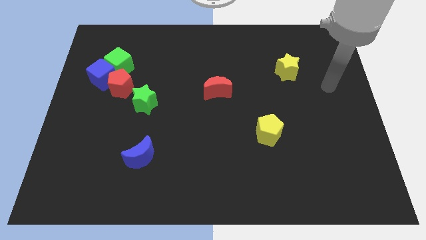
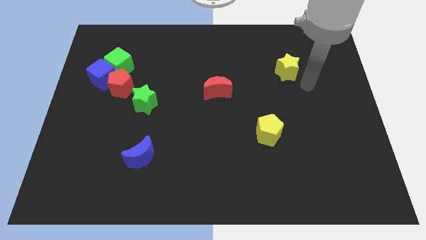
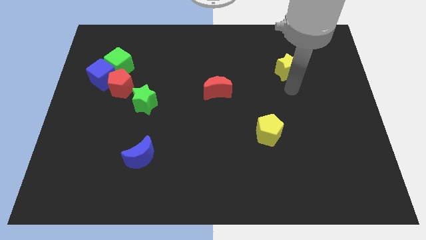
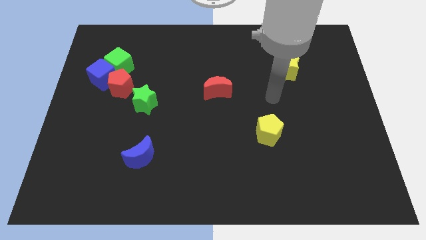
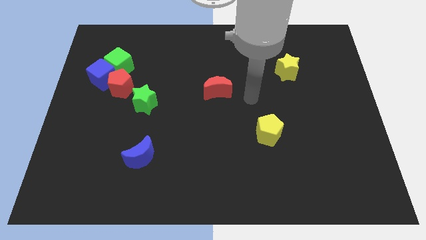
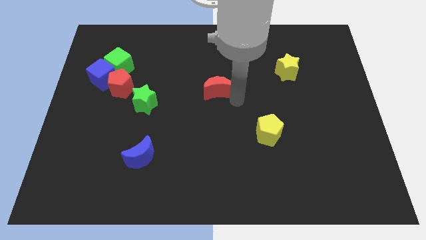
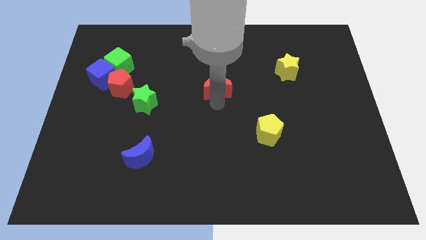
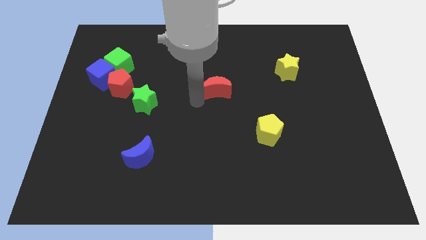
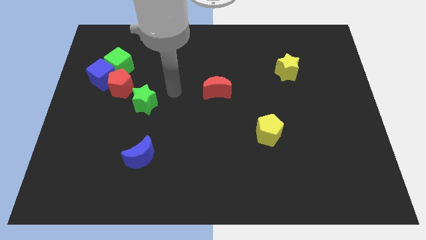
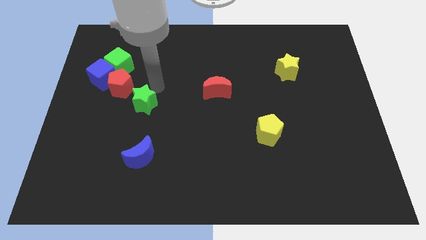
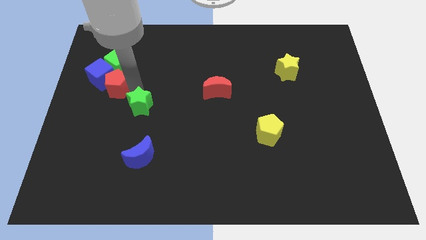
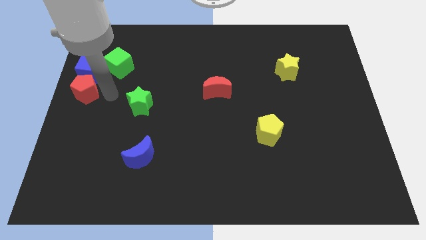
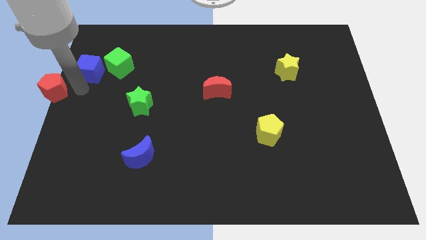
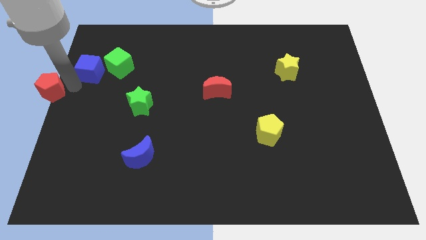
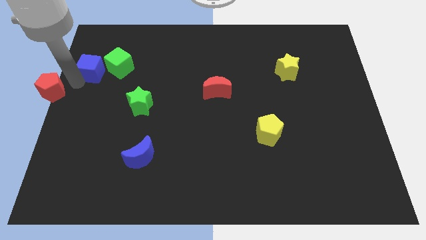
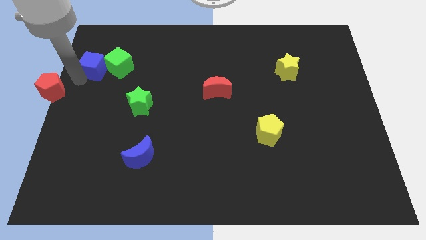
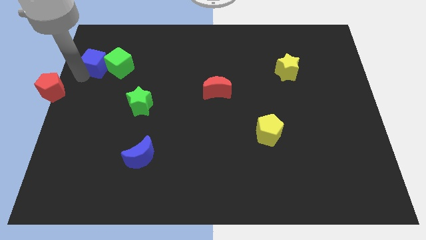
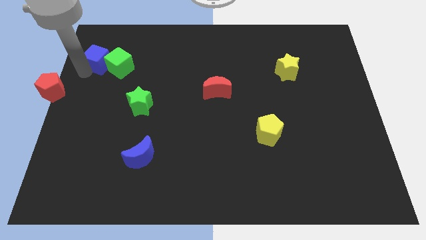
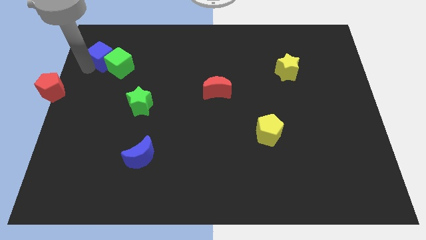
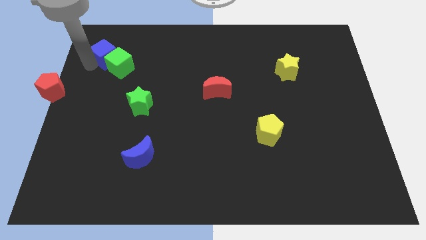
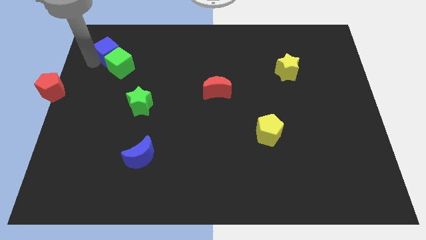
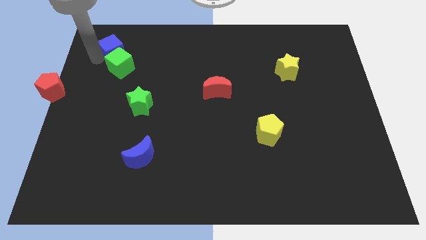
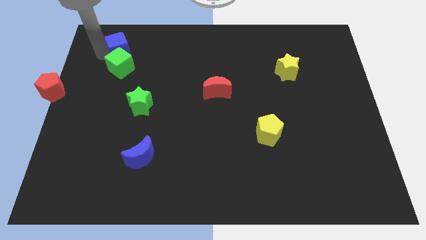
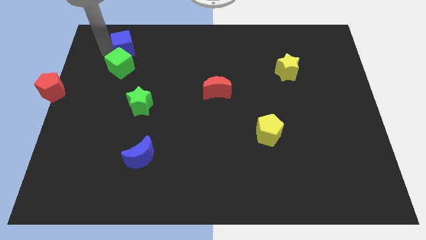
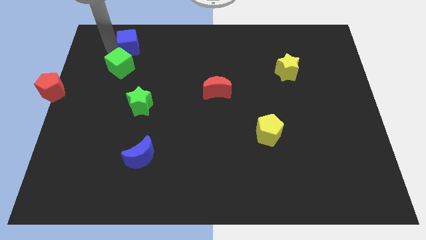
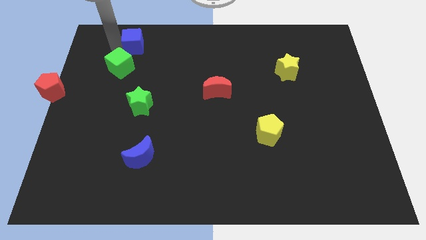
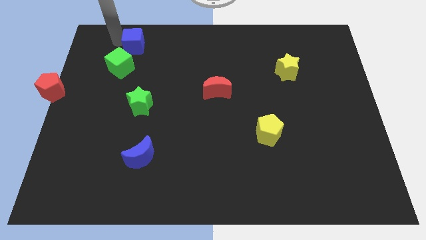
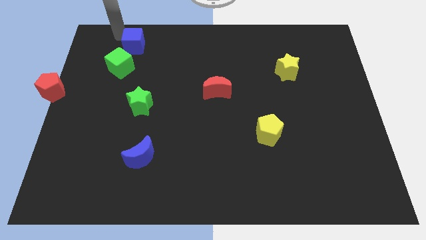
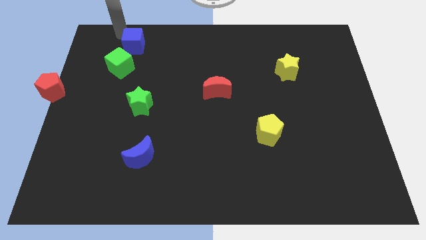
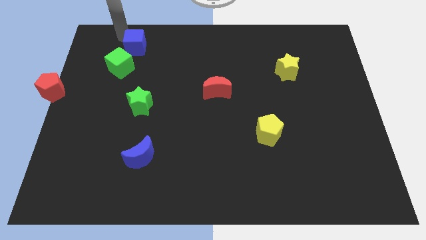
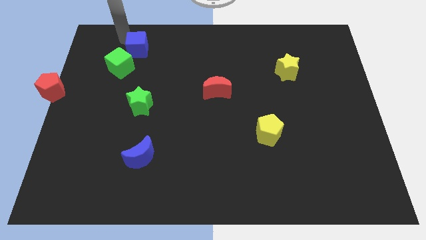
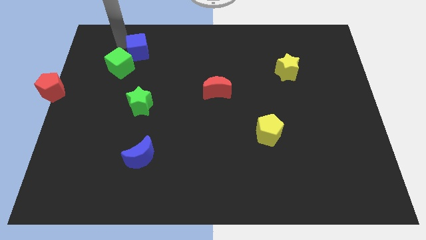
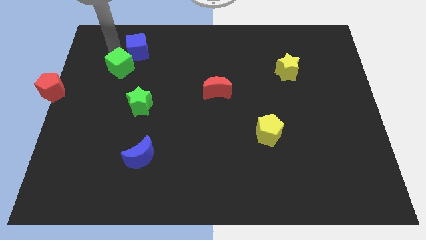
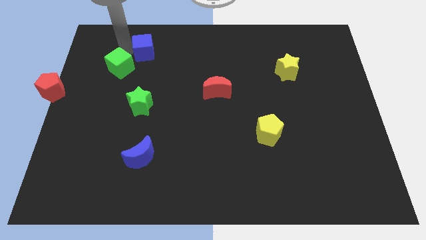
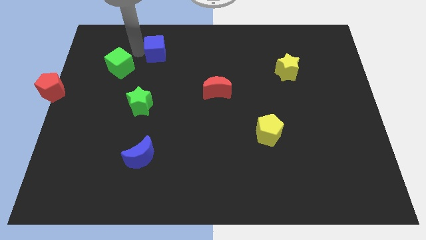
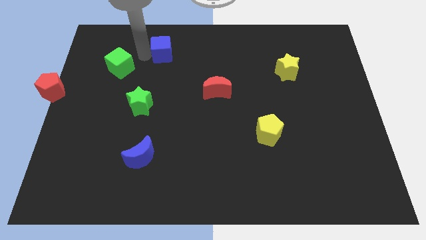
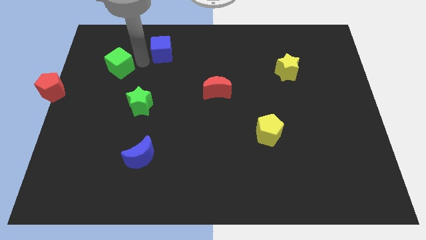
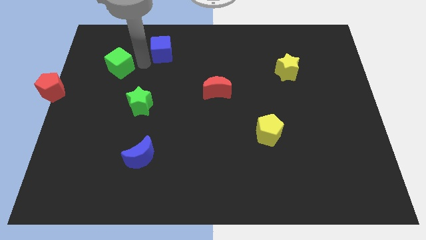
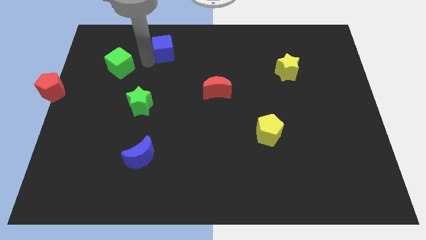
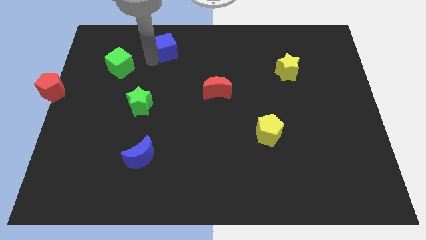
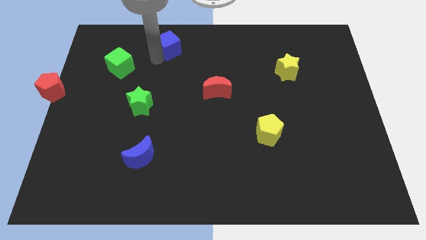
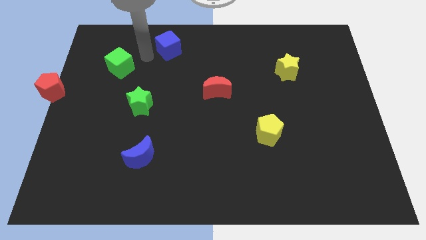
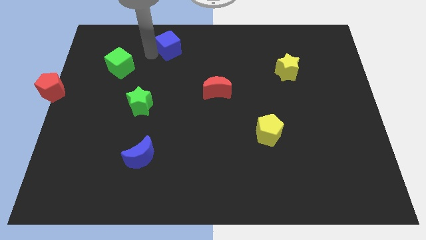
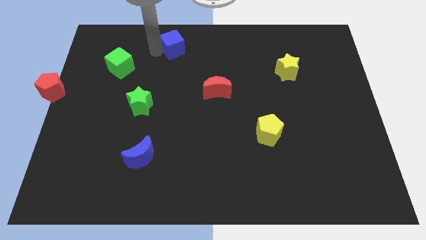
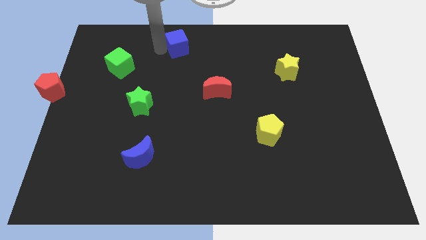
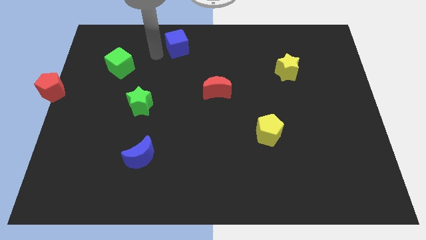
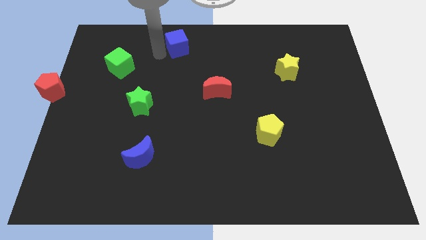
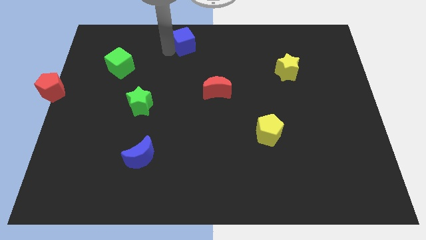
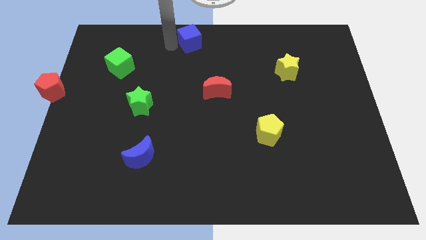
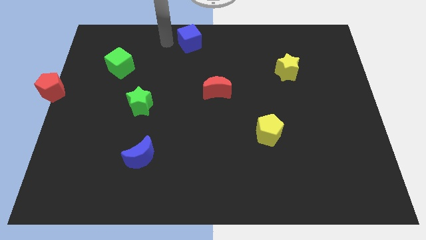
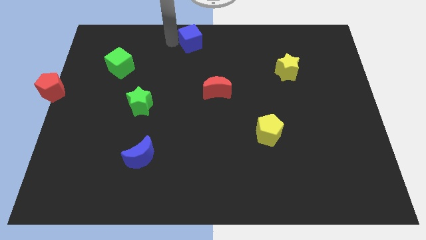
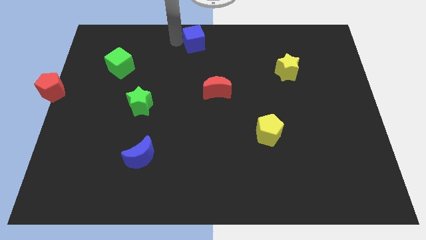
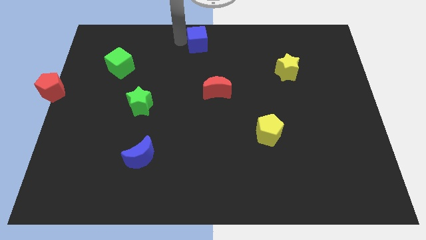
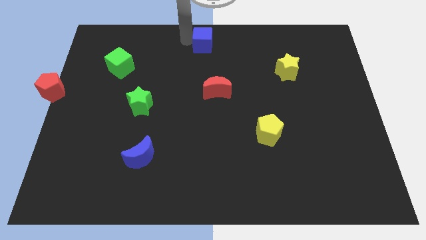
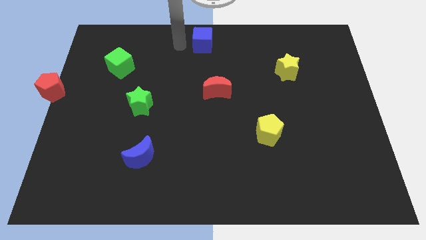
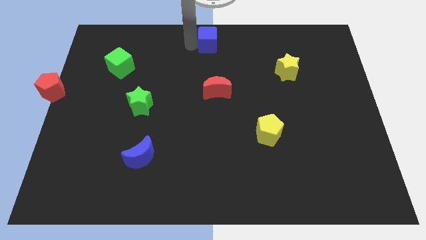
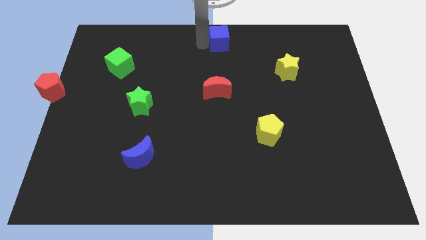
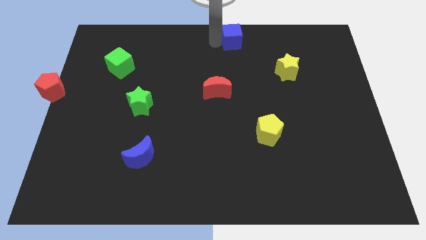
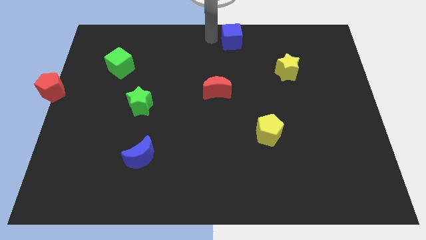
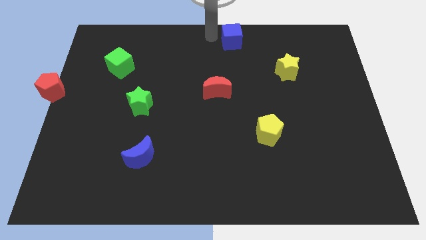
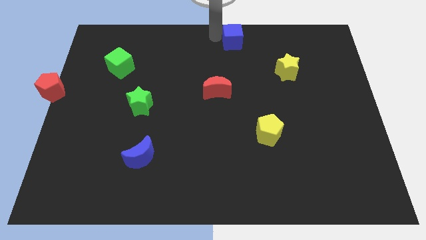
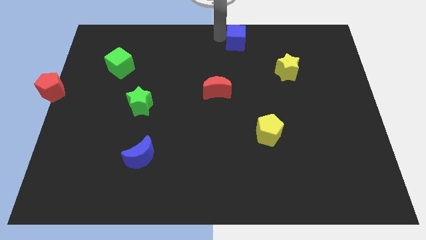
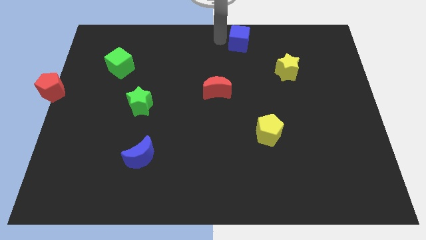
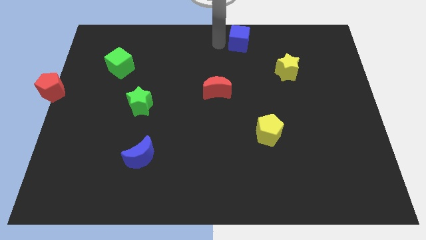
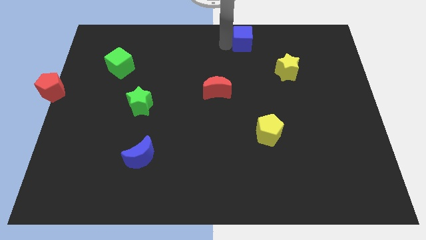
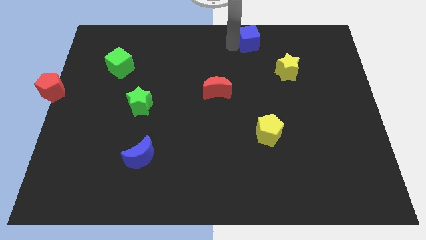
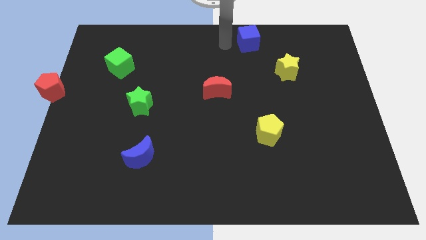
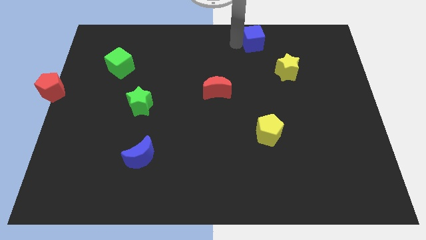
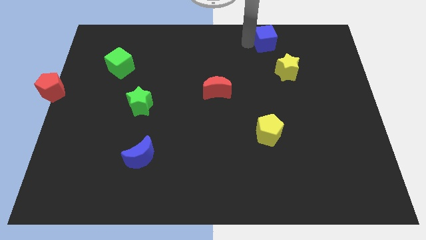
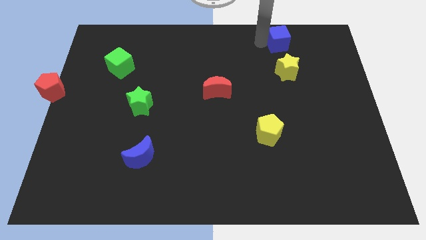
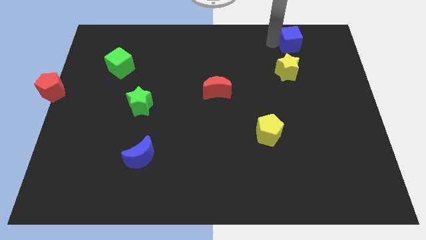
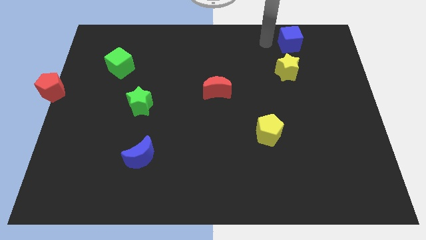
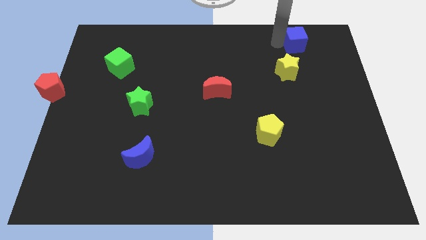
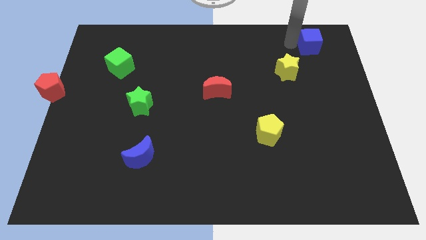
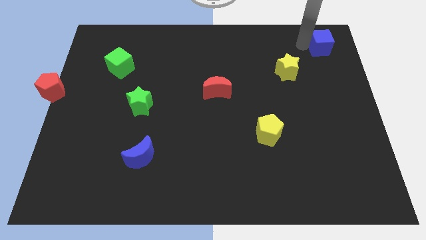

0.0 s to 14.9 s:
slide the blue cube to the top right of the board
